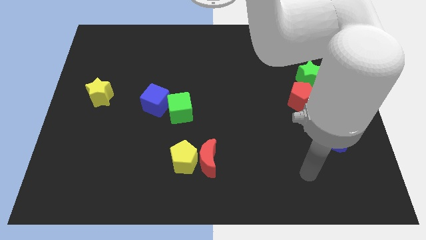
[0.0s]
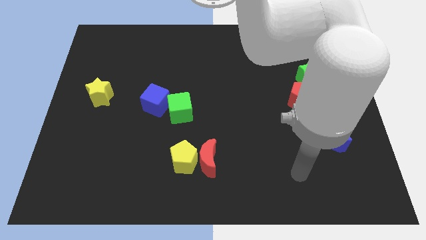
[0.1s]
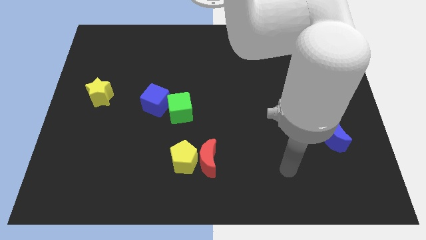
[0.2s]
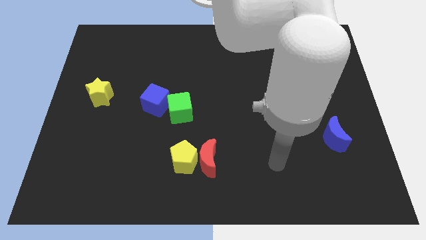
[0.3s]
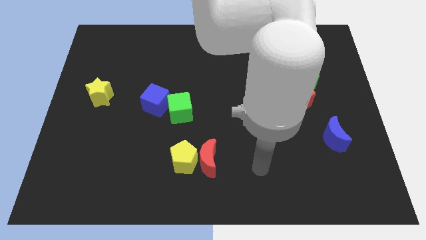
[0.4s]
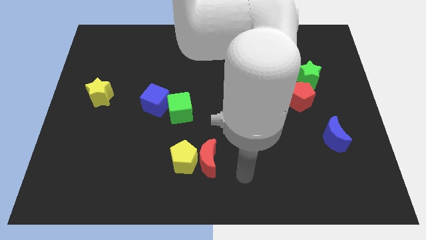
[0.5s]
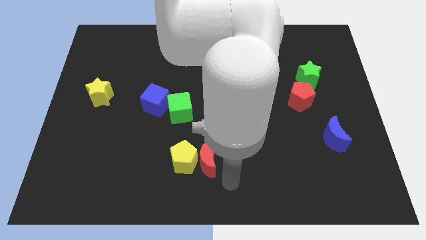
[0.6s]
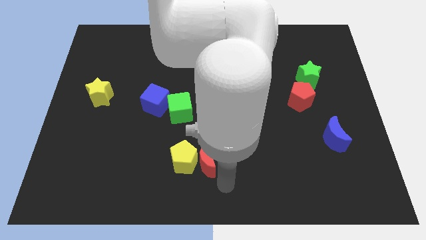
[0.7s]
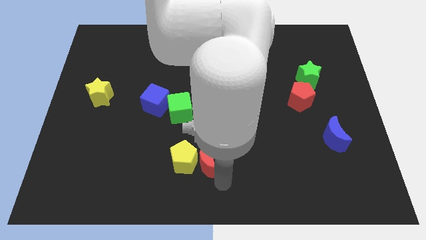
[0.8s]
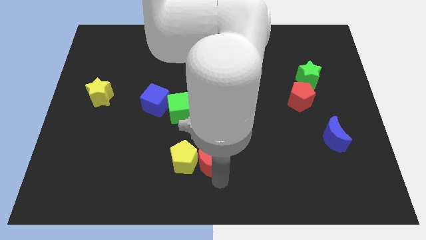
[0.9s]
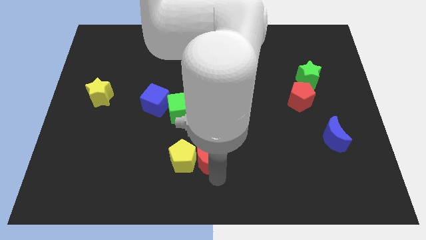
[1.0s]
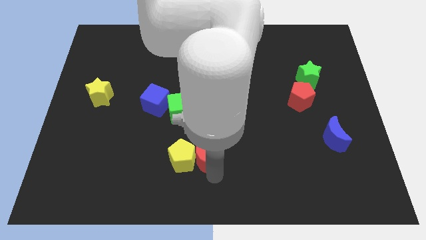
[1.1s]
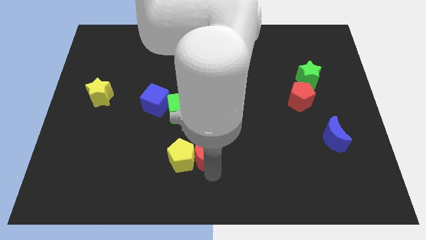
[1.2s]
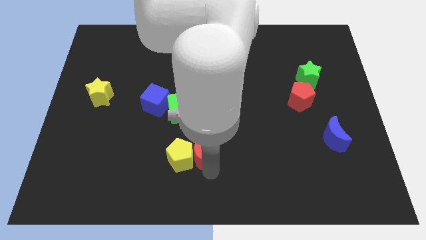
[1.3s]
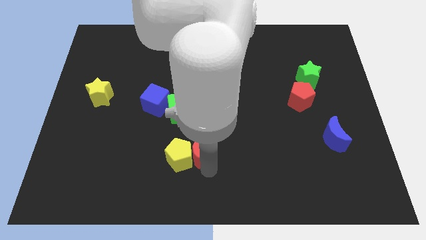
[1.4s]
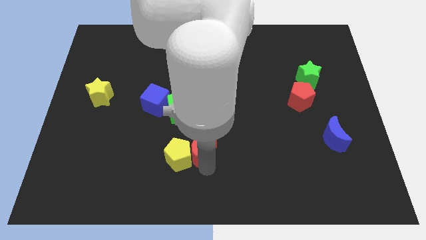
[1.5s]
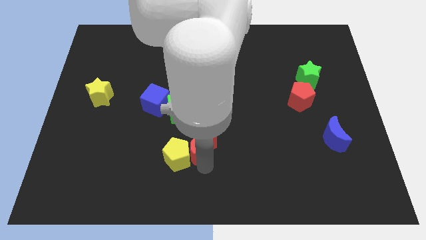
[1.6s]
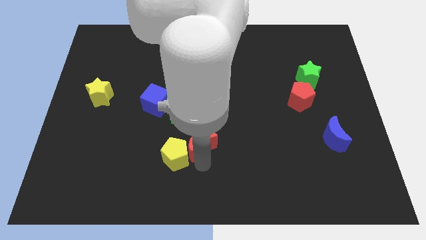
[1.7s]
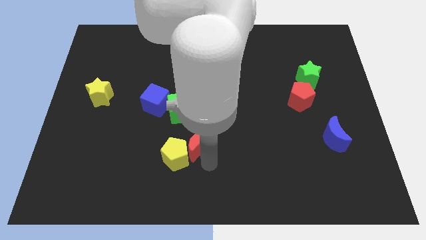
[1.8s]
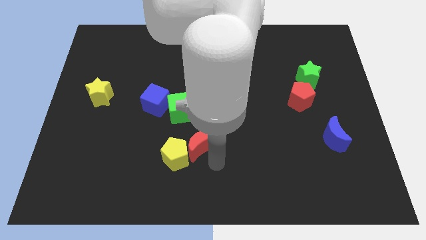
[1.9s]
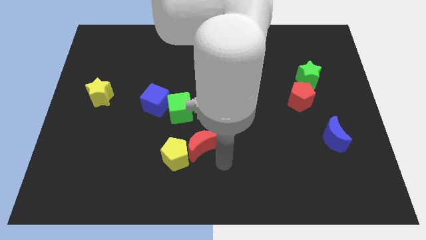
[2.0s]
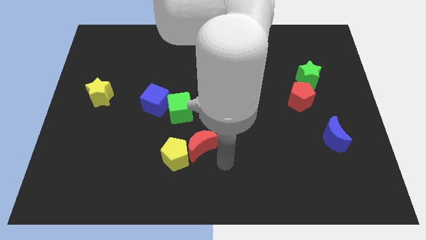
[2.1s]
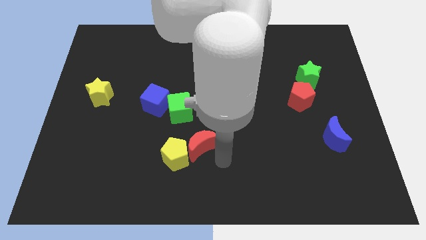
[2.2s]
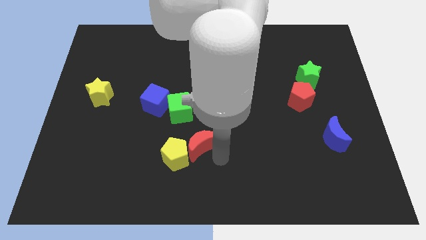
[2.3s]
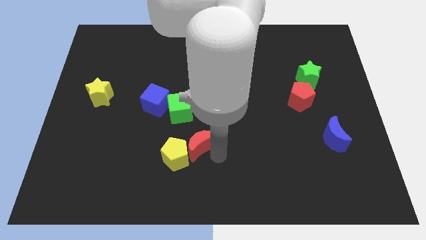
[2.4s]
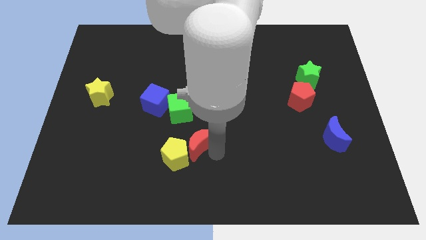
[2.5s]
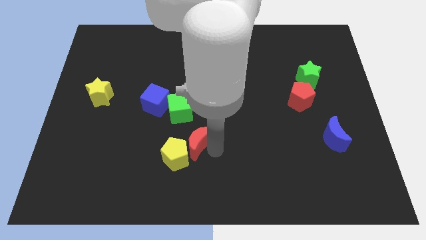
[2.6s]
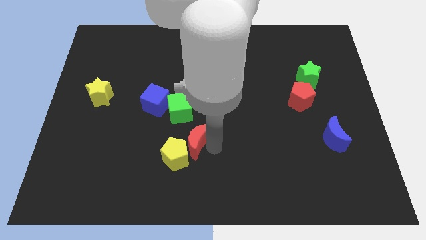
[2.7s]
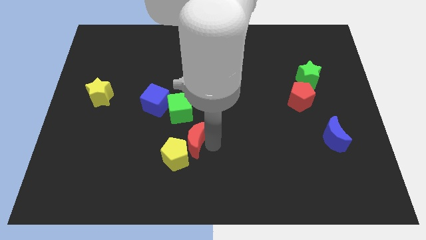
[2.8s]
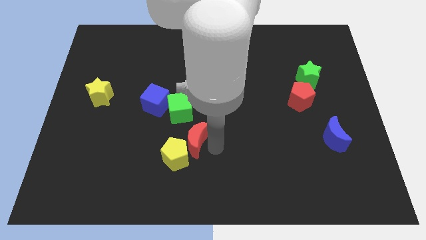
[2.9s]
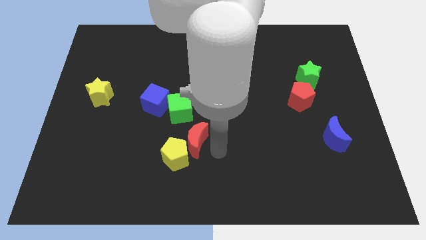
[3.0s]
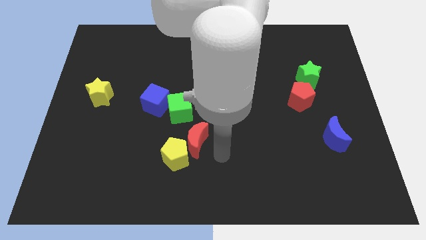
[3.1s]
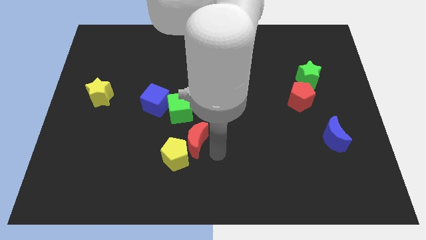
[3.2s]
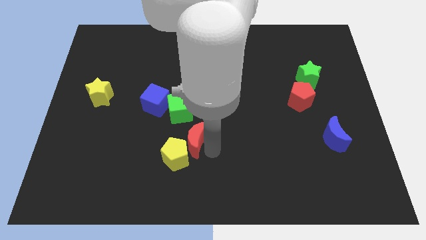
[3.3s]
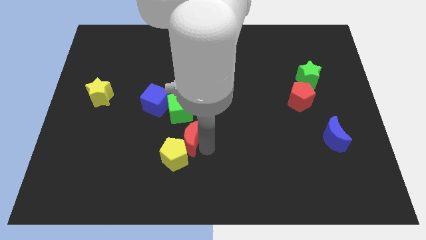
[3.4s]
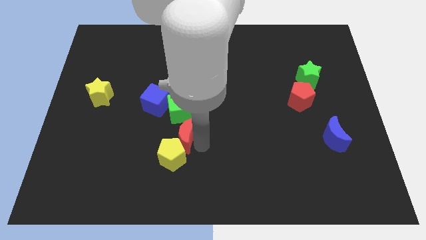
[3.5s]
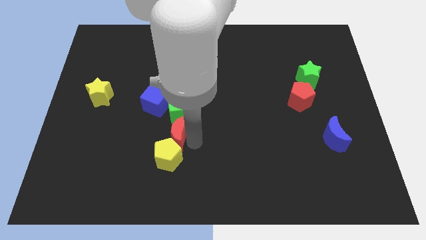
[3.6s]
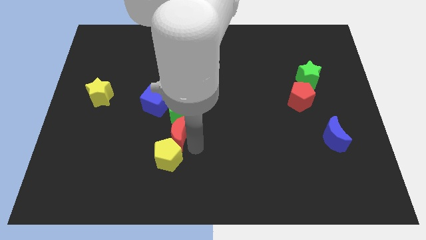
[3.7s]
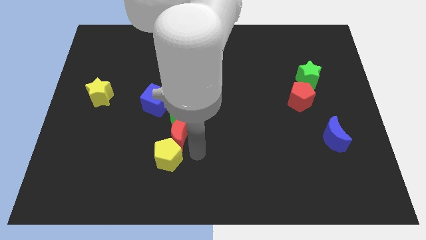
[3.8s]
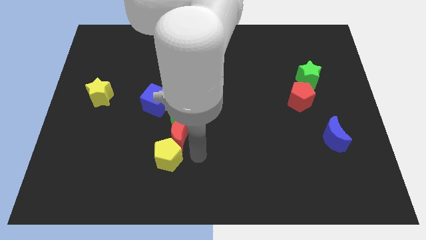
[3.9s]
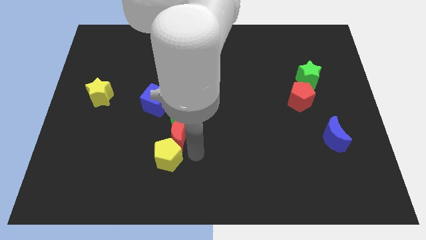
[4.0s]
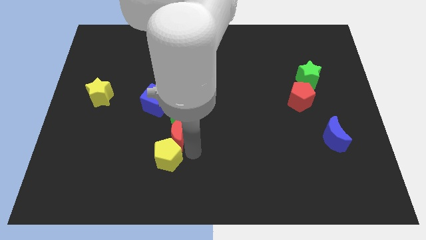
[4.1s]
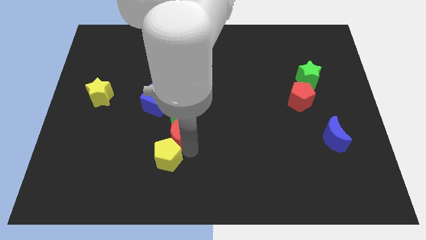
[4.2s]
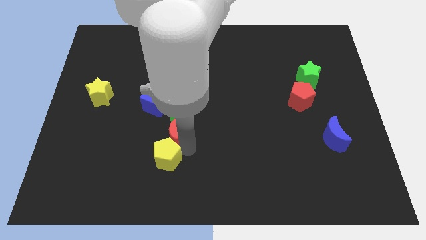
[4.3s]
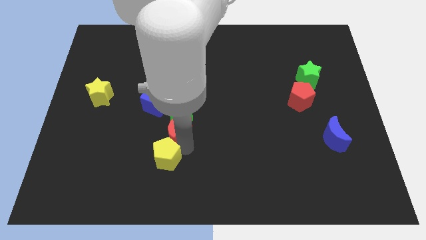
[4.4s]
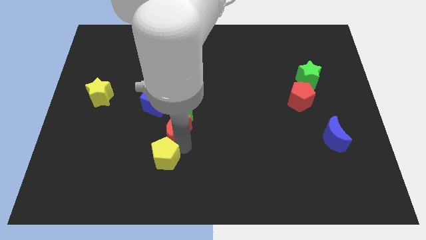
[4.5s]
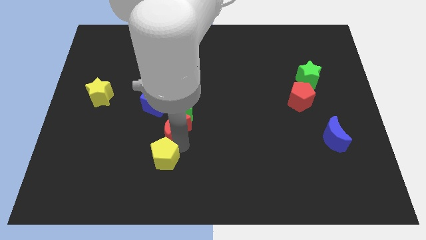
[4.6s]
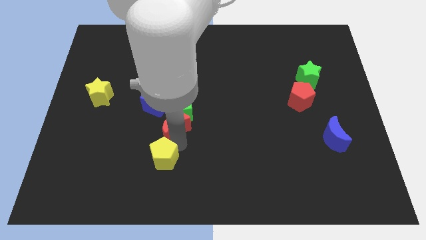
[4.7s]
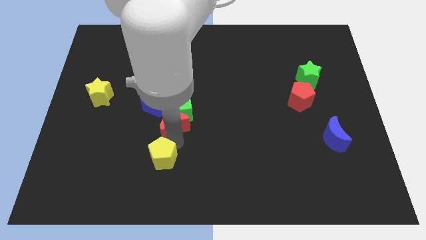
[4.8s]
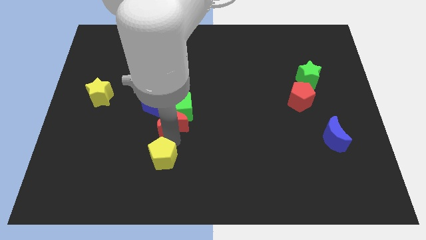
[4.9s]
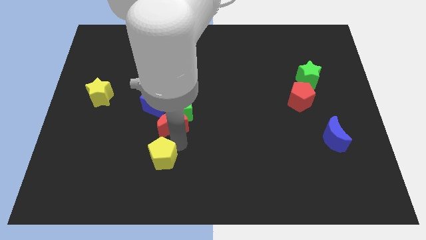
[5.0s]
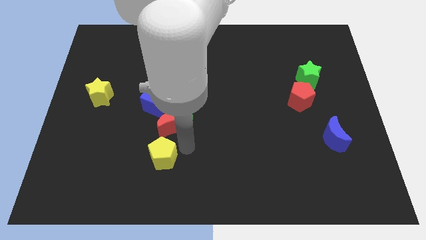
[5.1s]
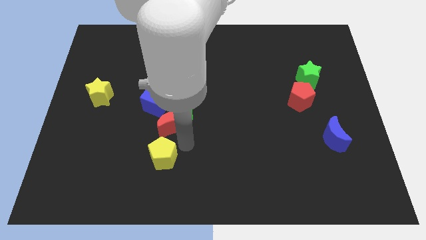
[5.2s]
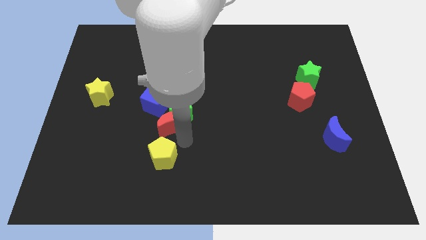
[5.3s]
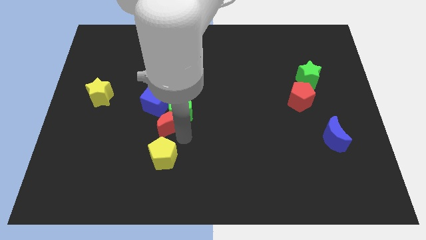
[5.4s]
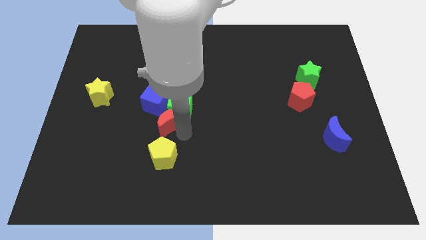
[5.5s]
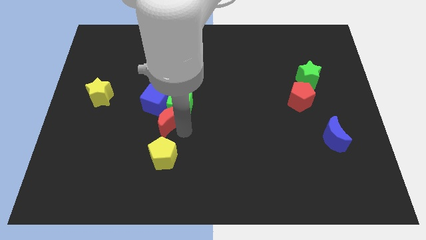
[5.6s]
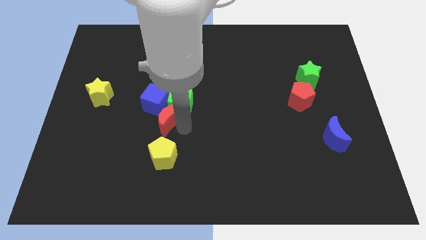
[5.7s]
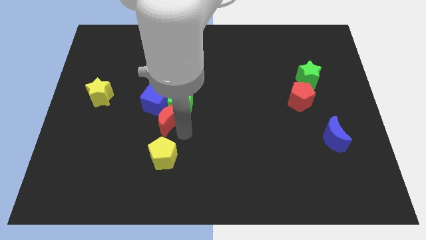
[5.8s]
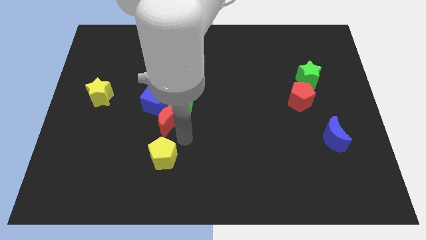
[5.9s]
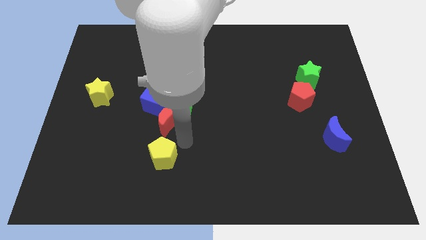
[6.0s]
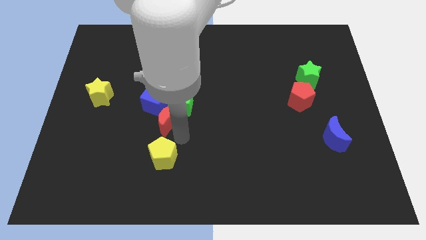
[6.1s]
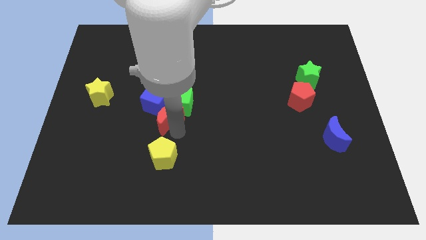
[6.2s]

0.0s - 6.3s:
move the red moon towards the blue cube

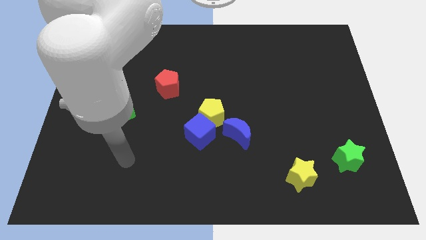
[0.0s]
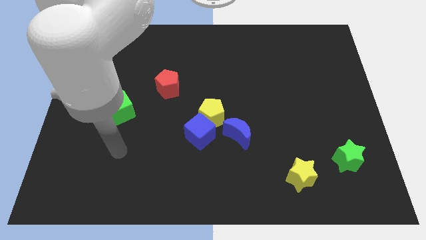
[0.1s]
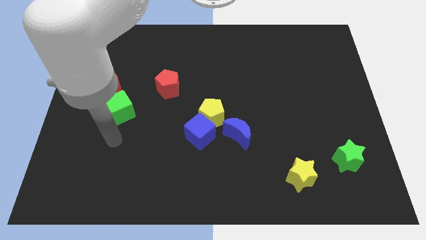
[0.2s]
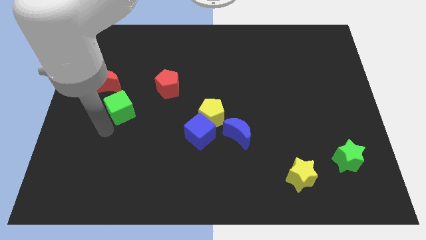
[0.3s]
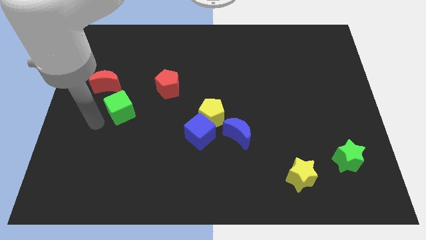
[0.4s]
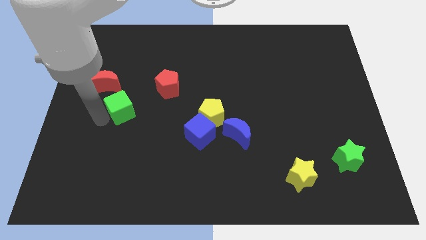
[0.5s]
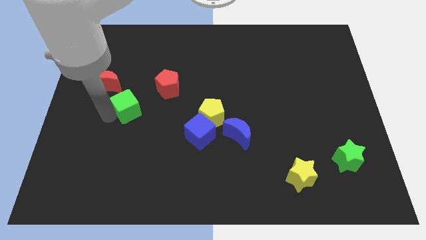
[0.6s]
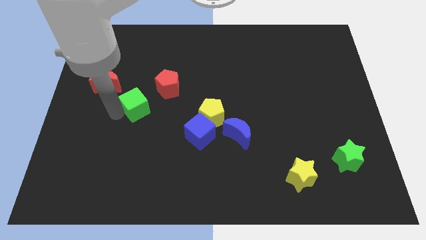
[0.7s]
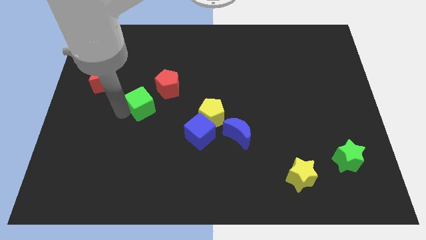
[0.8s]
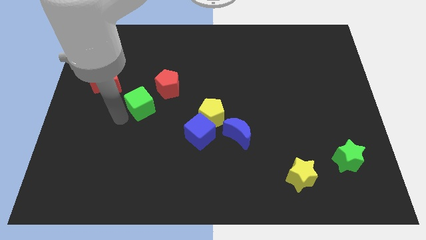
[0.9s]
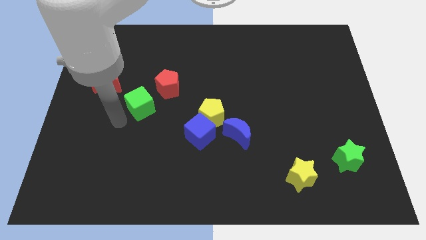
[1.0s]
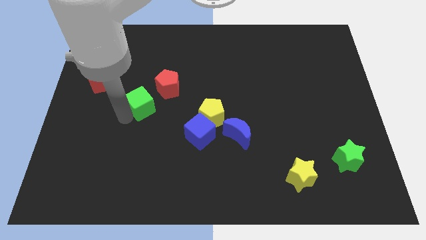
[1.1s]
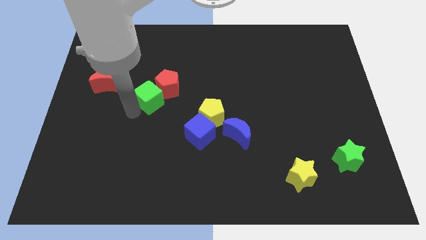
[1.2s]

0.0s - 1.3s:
put the green cube close to the red pentagon
